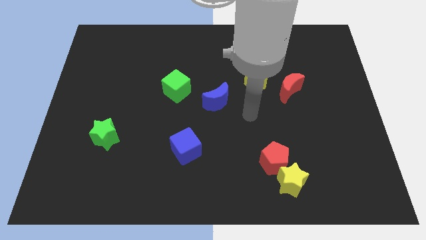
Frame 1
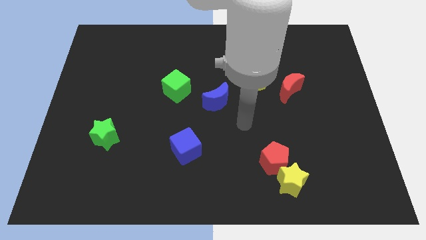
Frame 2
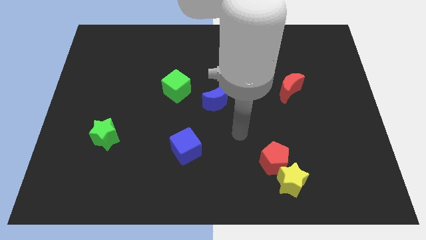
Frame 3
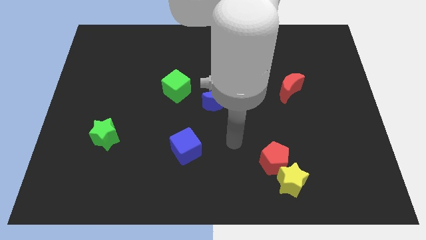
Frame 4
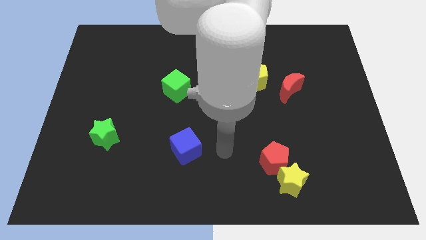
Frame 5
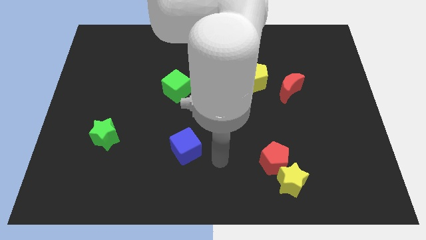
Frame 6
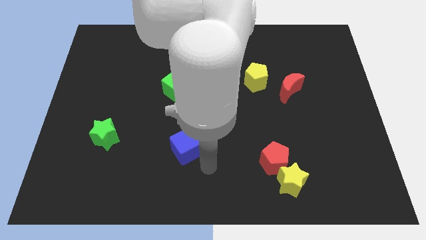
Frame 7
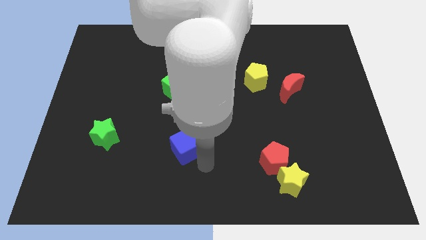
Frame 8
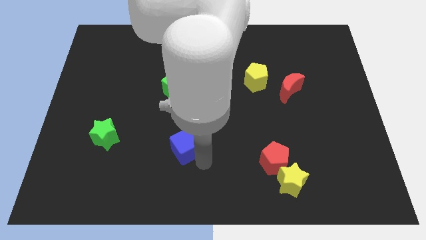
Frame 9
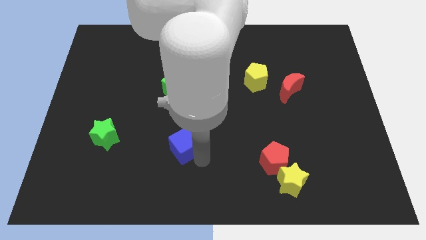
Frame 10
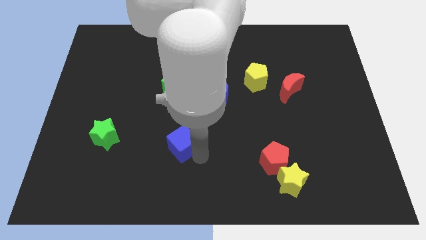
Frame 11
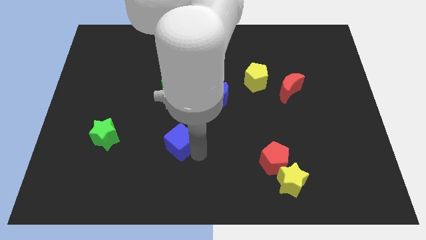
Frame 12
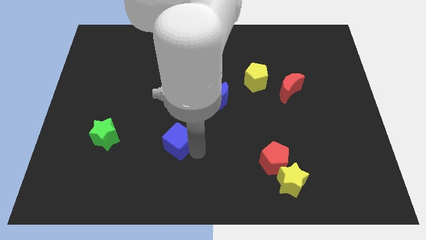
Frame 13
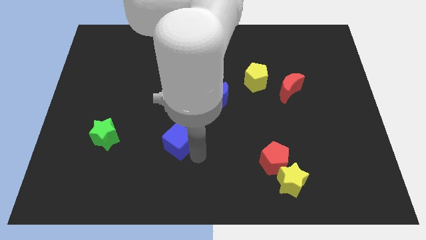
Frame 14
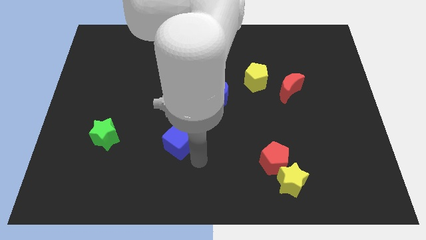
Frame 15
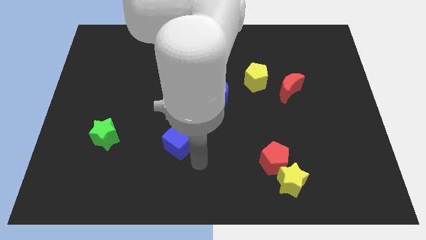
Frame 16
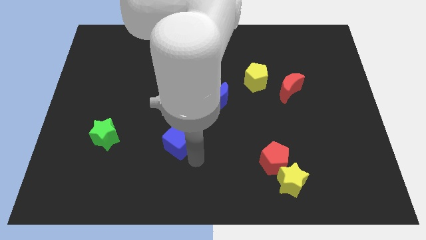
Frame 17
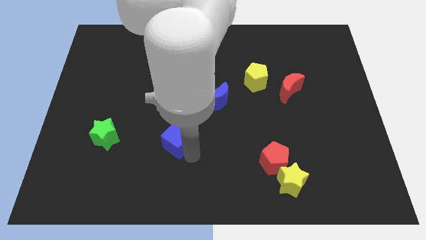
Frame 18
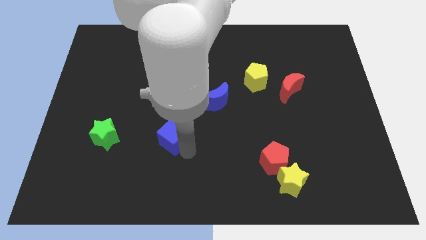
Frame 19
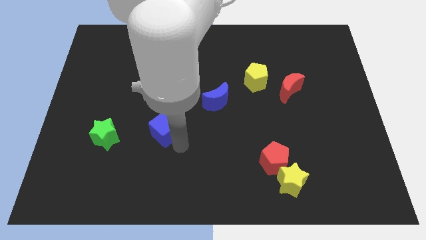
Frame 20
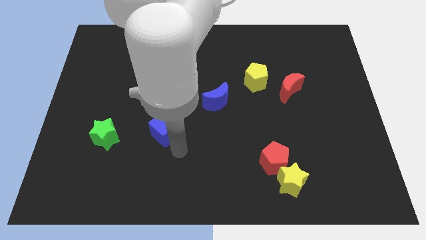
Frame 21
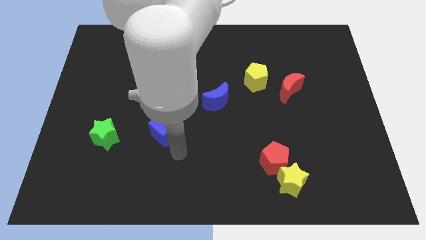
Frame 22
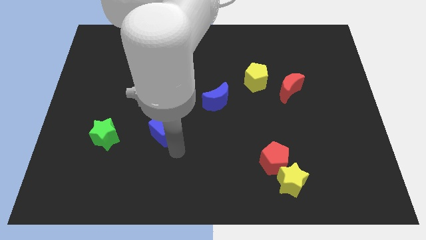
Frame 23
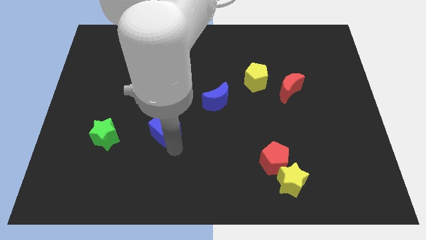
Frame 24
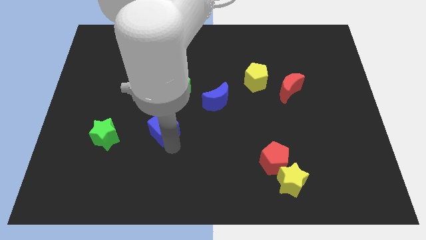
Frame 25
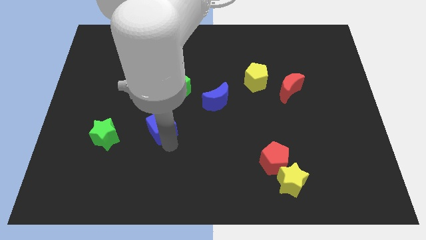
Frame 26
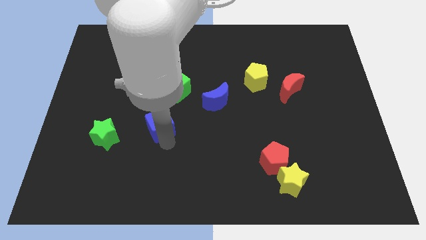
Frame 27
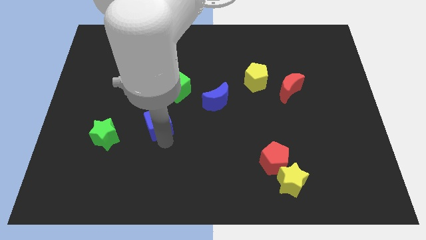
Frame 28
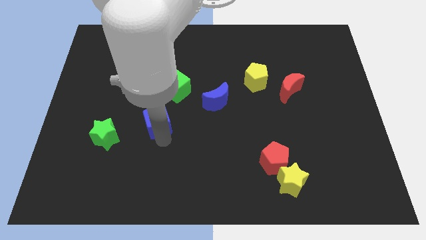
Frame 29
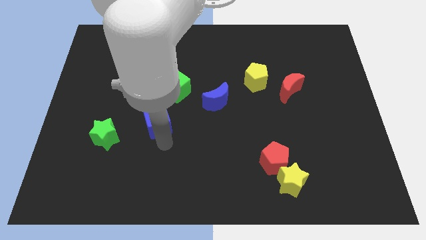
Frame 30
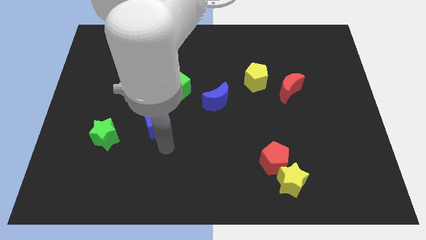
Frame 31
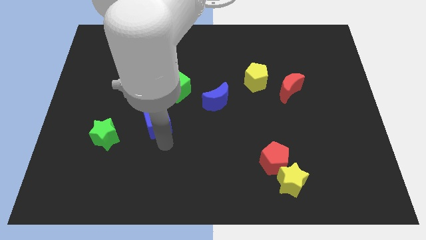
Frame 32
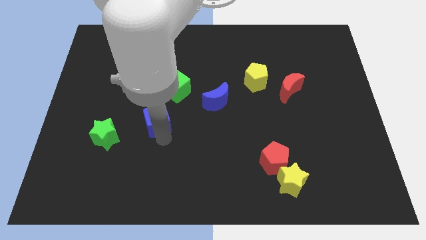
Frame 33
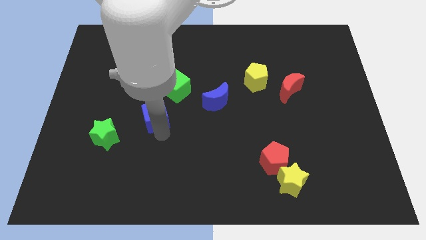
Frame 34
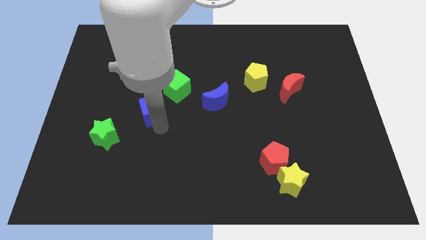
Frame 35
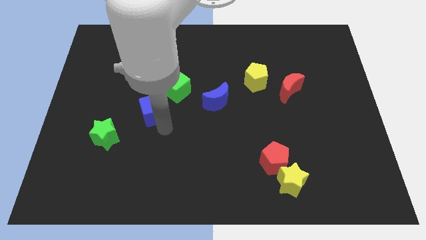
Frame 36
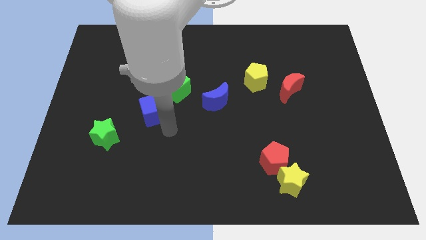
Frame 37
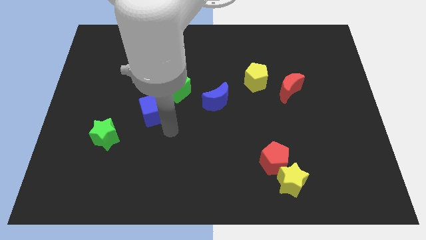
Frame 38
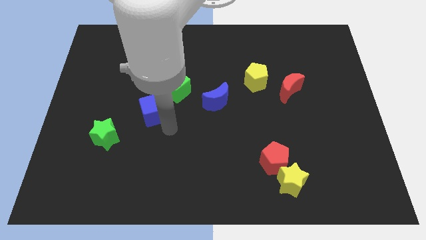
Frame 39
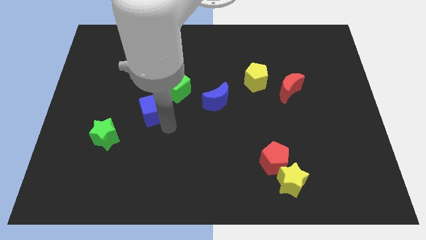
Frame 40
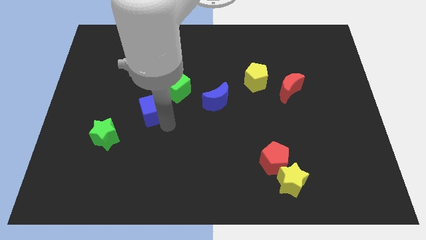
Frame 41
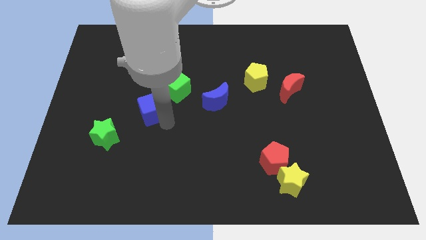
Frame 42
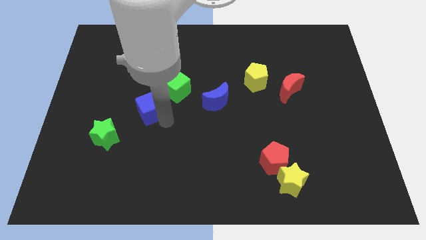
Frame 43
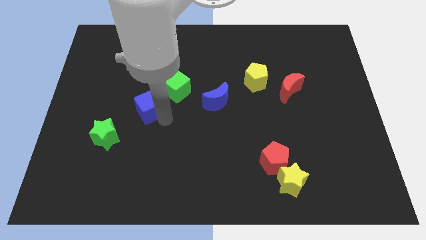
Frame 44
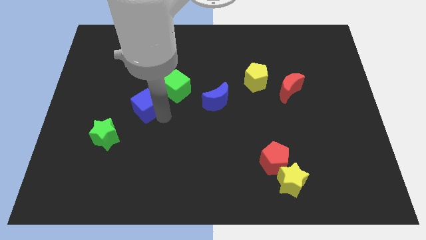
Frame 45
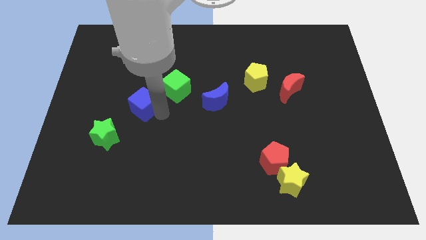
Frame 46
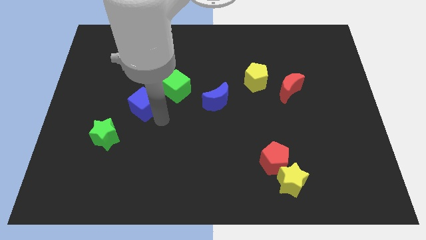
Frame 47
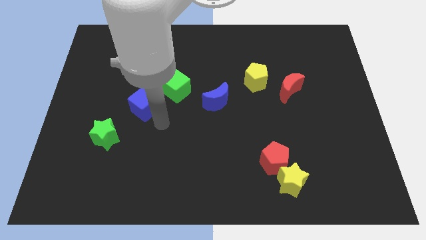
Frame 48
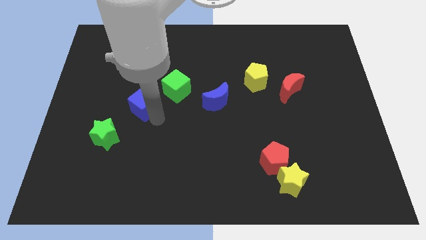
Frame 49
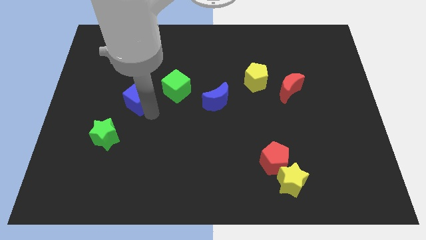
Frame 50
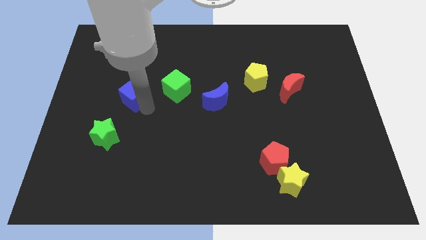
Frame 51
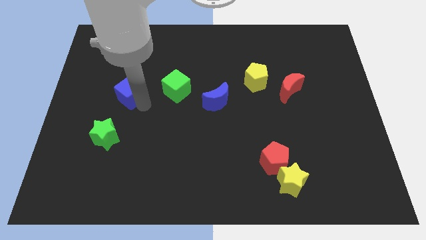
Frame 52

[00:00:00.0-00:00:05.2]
push the blue cube upwards and left

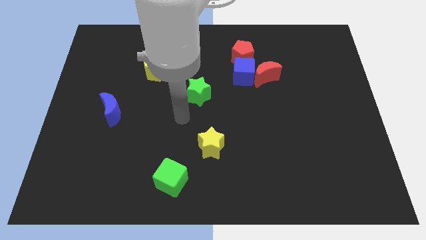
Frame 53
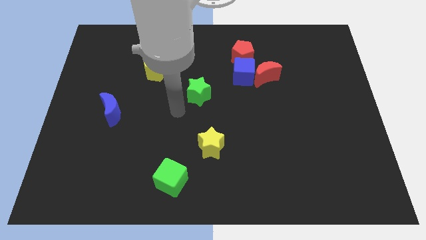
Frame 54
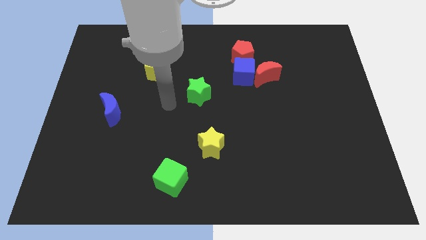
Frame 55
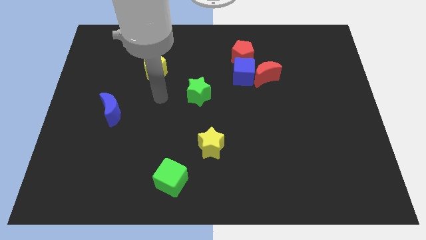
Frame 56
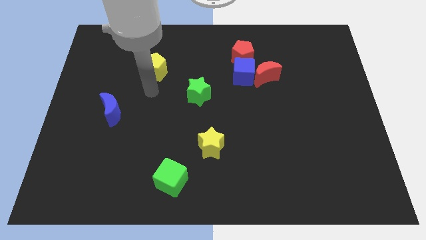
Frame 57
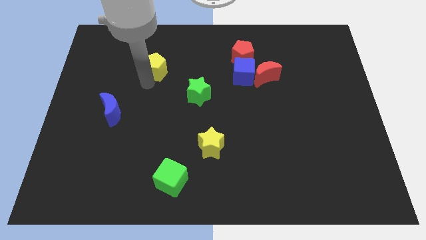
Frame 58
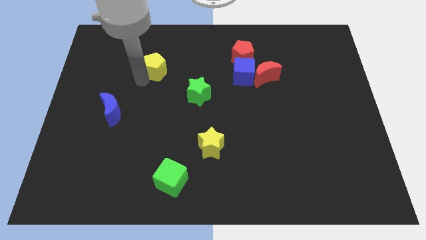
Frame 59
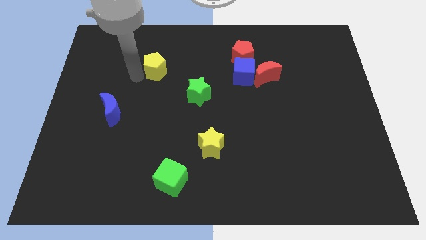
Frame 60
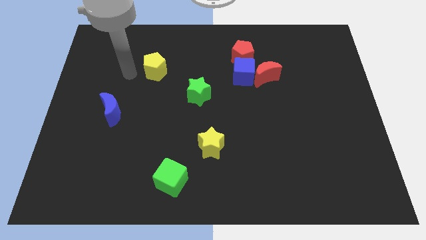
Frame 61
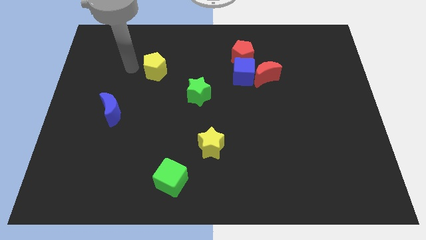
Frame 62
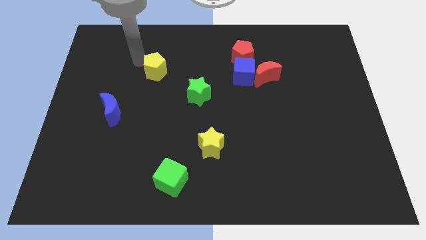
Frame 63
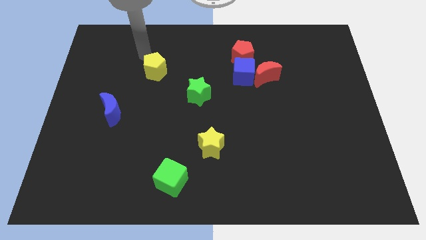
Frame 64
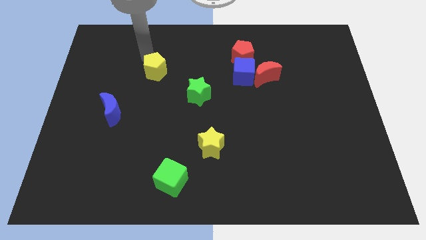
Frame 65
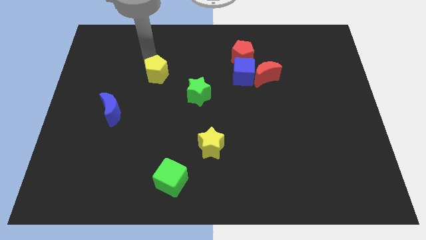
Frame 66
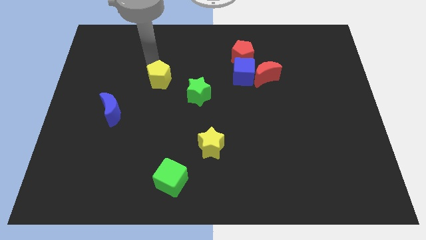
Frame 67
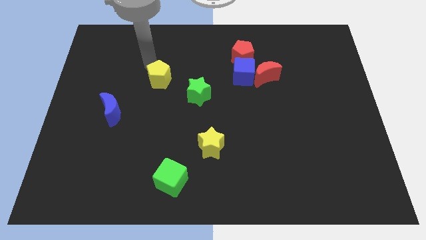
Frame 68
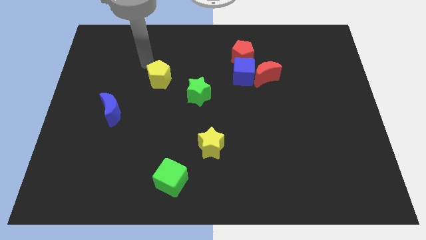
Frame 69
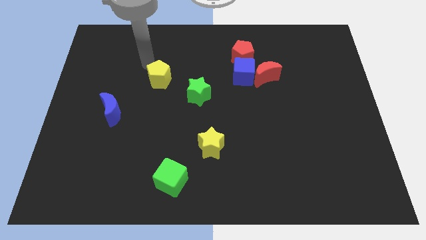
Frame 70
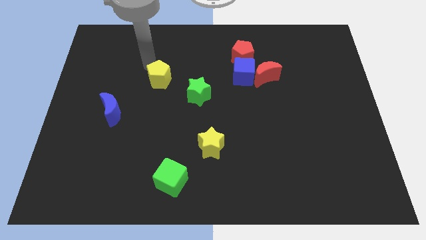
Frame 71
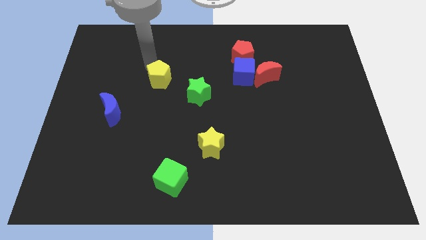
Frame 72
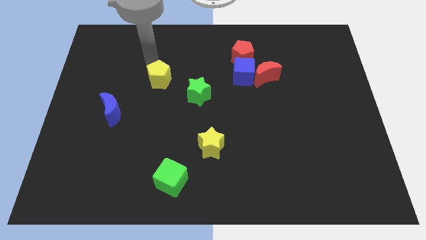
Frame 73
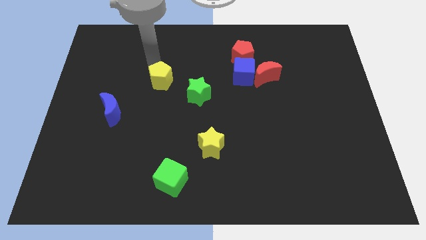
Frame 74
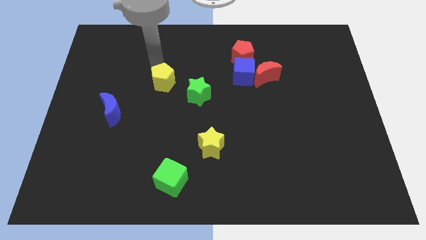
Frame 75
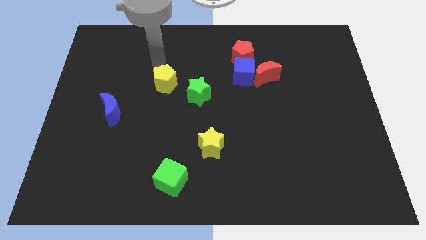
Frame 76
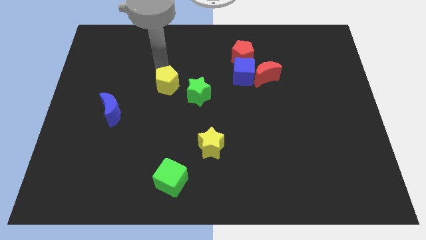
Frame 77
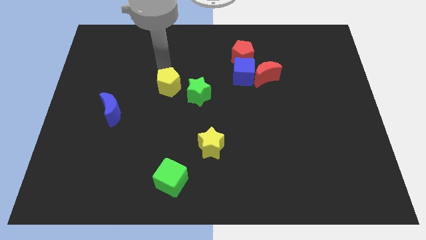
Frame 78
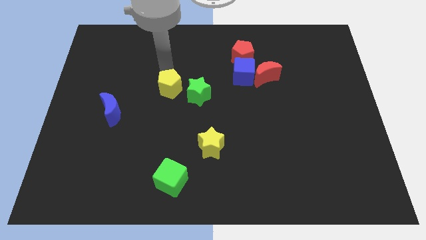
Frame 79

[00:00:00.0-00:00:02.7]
slightly slide the yellow pentagon diagonally downwards and to the right

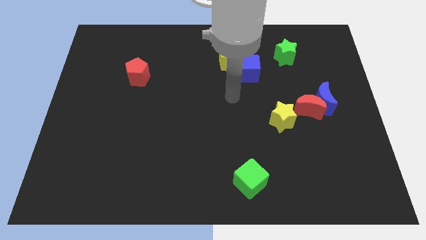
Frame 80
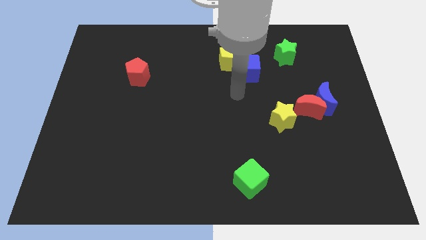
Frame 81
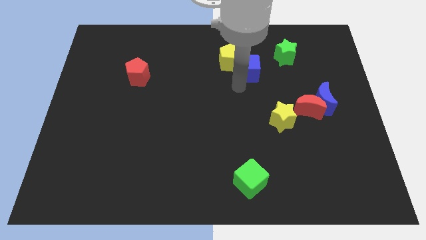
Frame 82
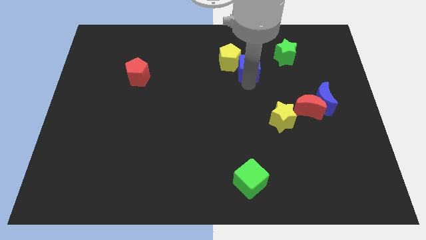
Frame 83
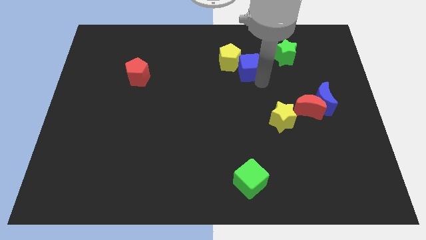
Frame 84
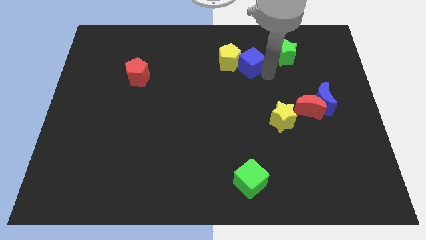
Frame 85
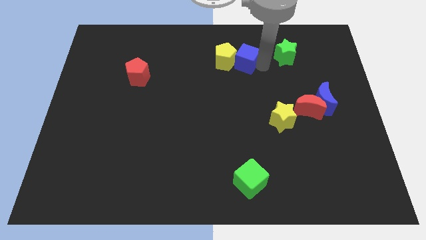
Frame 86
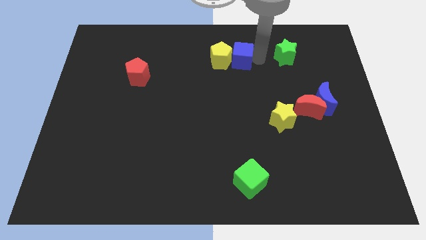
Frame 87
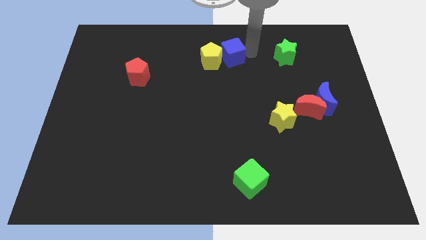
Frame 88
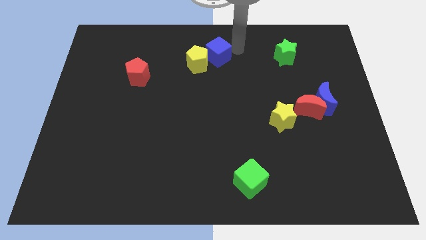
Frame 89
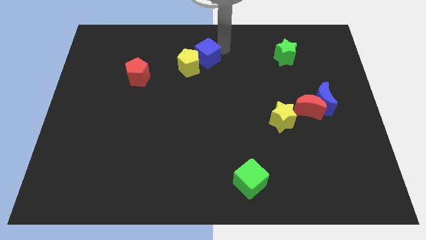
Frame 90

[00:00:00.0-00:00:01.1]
push the yellow pentagon a little bit diagonally downwards and to the left
